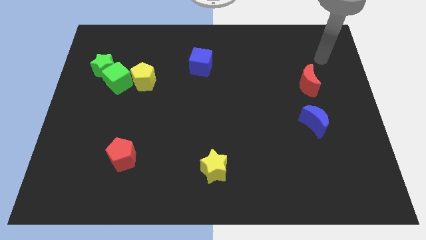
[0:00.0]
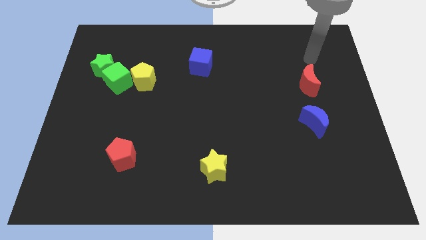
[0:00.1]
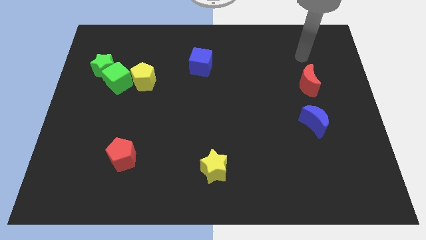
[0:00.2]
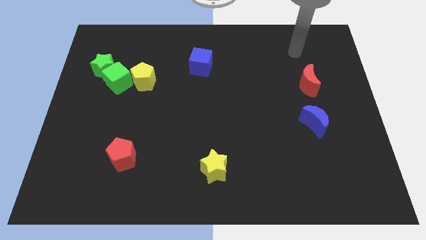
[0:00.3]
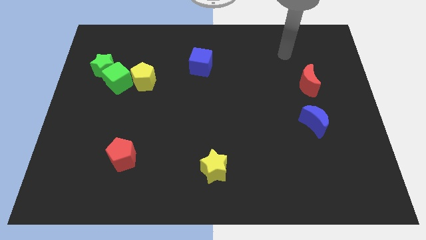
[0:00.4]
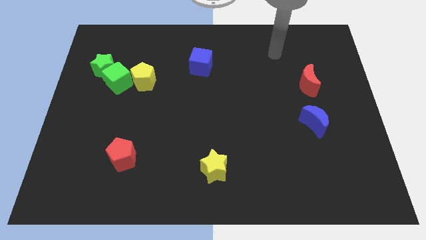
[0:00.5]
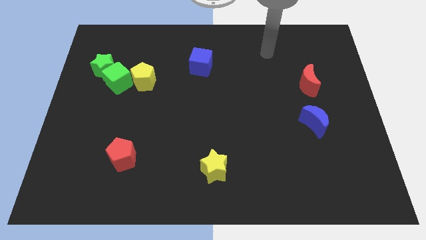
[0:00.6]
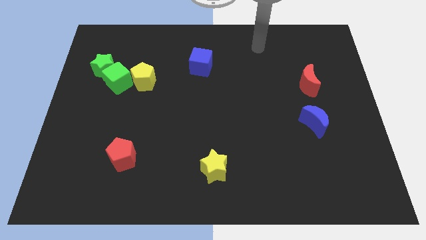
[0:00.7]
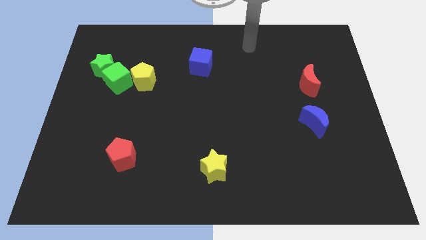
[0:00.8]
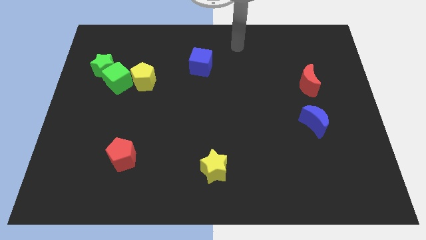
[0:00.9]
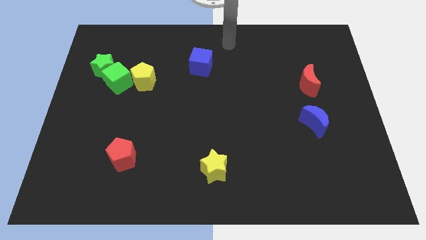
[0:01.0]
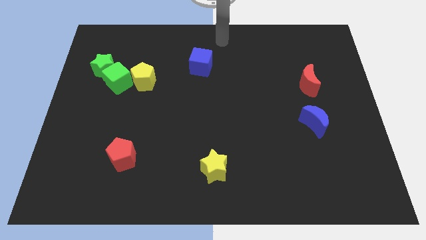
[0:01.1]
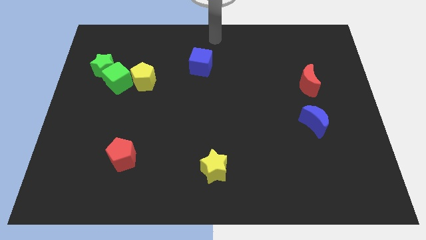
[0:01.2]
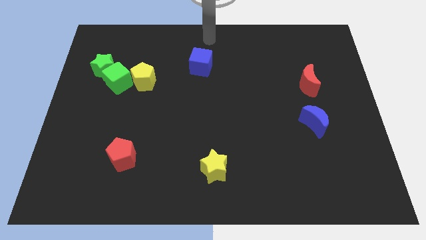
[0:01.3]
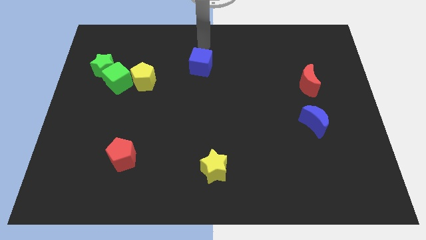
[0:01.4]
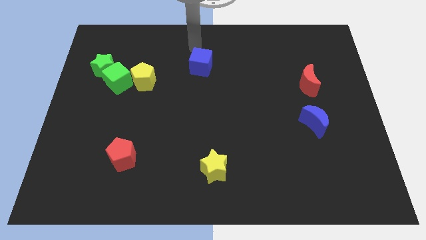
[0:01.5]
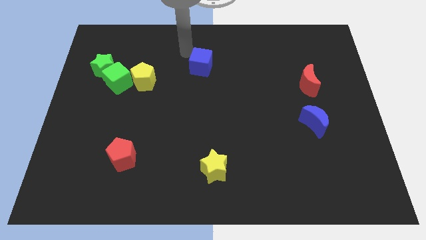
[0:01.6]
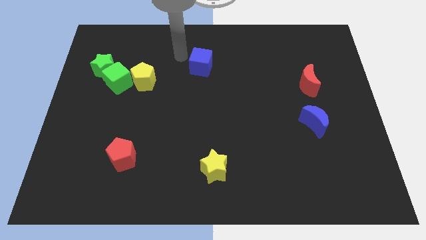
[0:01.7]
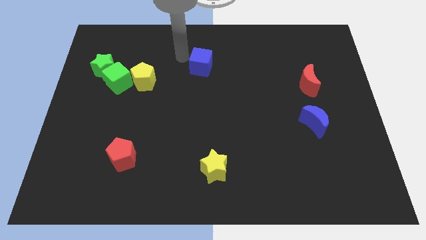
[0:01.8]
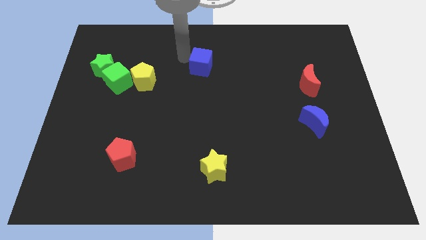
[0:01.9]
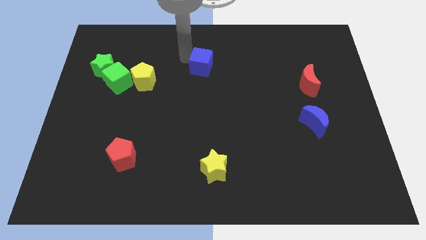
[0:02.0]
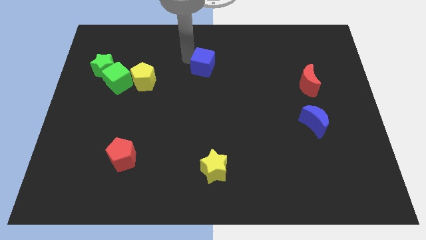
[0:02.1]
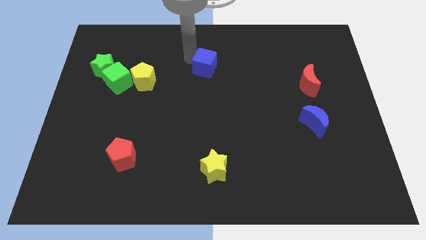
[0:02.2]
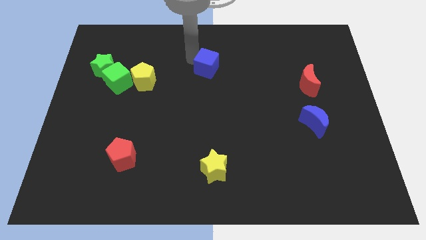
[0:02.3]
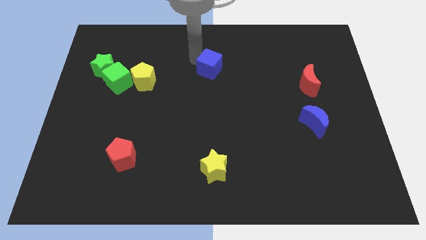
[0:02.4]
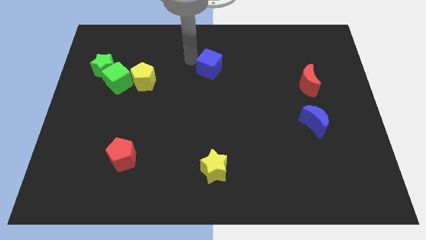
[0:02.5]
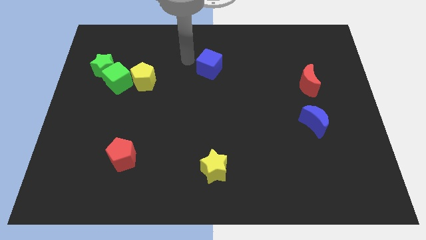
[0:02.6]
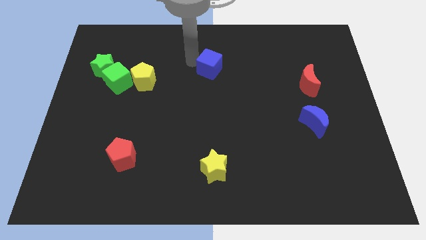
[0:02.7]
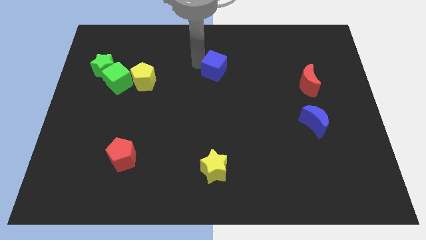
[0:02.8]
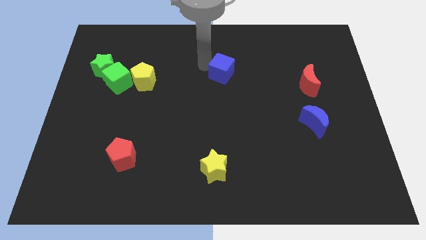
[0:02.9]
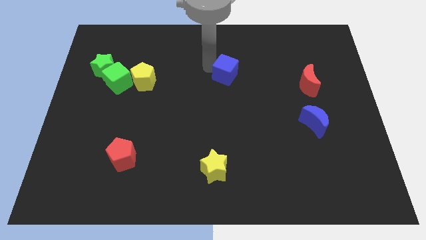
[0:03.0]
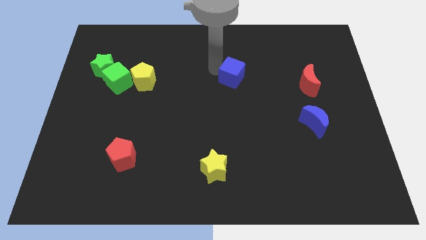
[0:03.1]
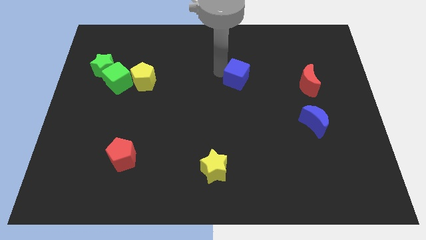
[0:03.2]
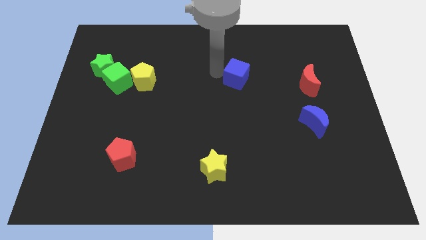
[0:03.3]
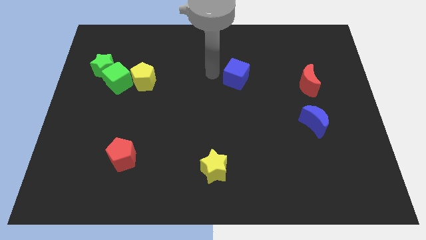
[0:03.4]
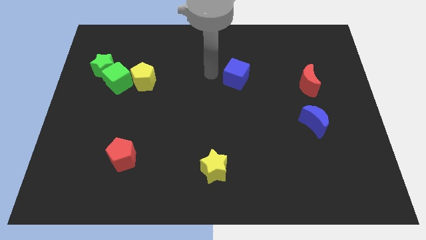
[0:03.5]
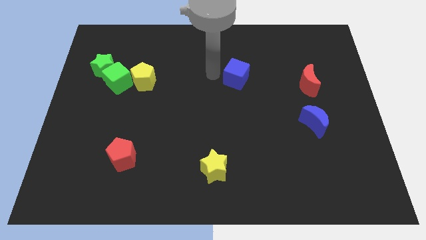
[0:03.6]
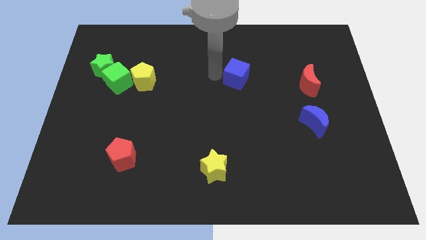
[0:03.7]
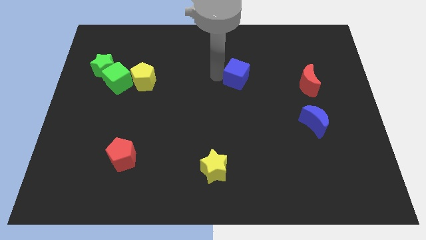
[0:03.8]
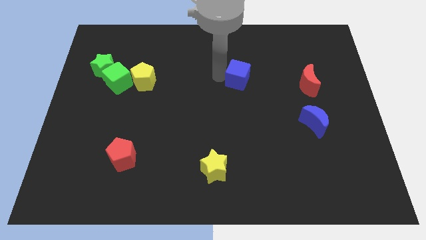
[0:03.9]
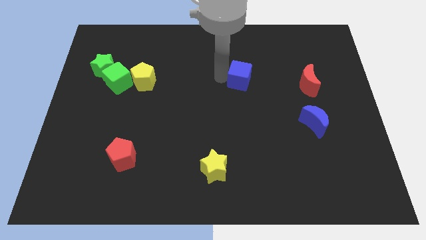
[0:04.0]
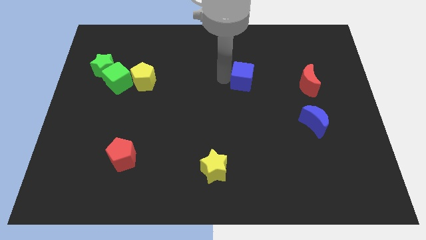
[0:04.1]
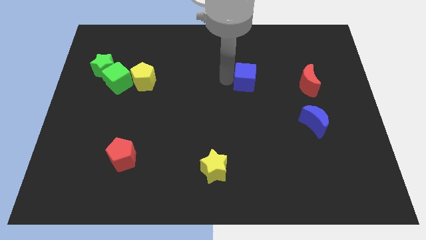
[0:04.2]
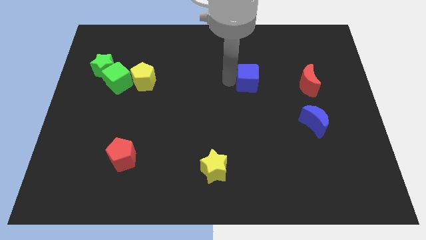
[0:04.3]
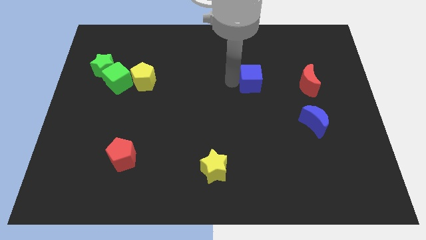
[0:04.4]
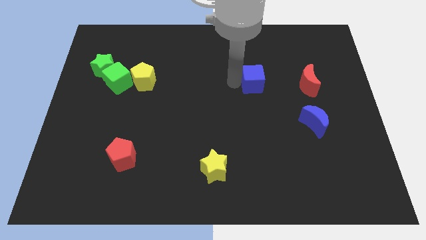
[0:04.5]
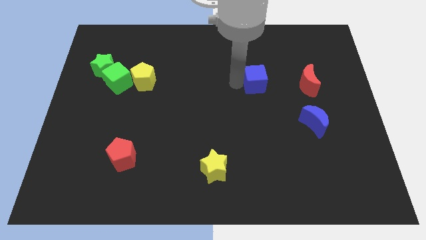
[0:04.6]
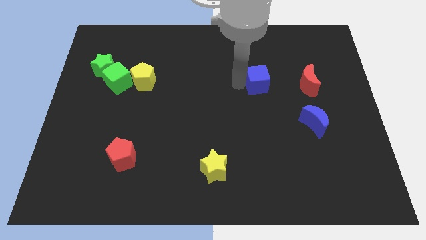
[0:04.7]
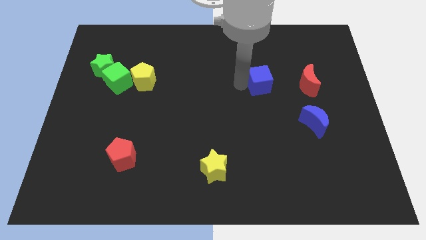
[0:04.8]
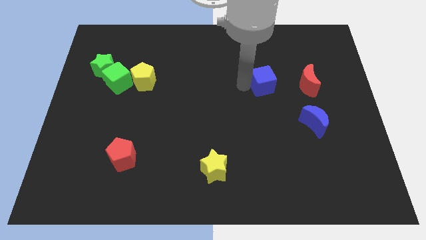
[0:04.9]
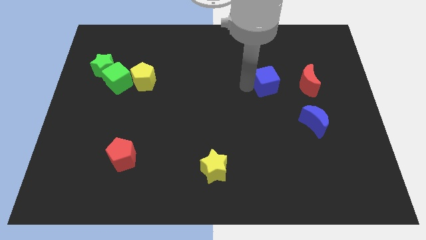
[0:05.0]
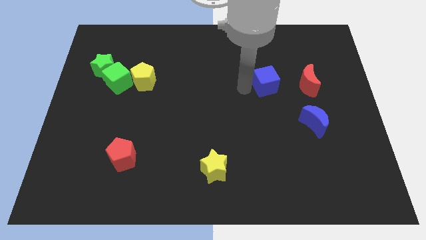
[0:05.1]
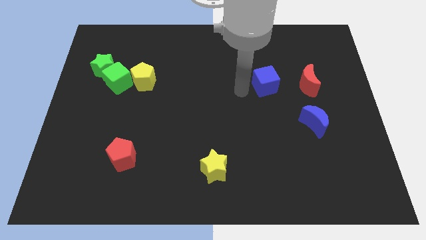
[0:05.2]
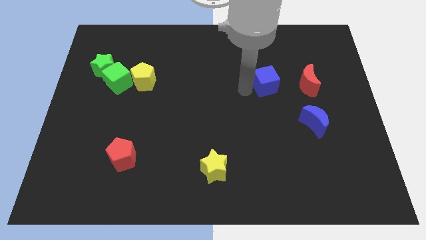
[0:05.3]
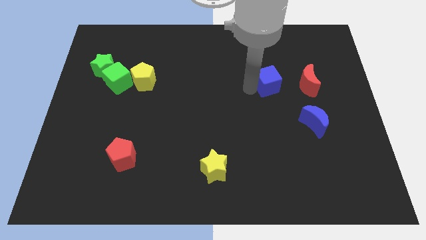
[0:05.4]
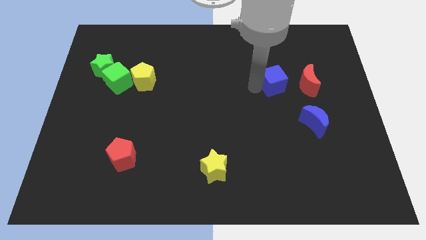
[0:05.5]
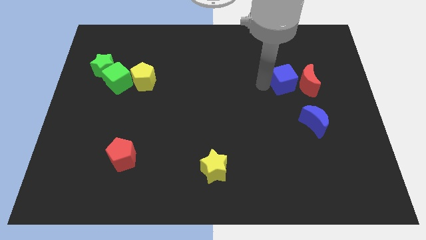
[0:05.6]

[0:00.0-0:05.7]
move the blue cube towards the red moon
